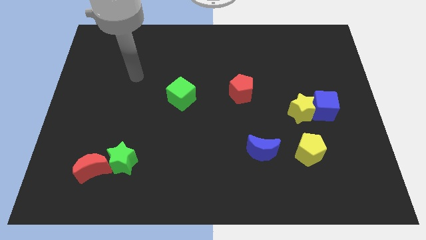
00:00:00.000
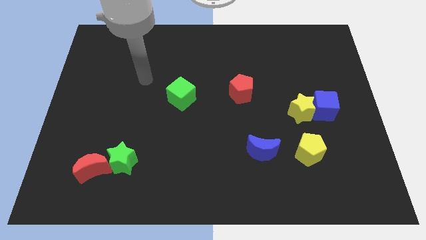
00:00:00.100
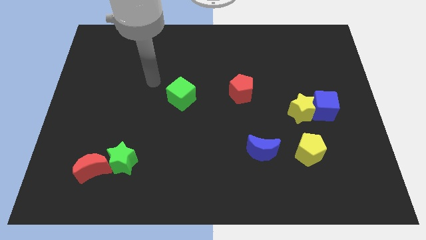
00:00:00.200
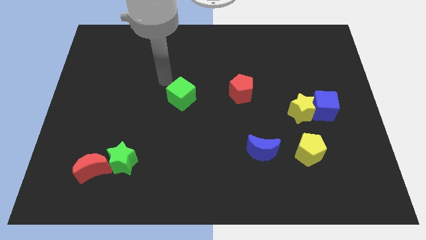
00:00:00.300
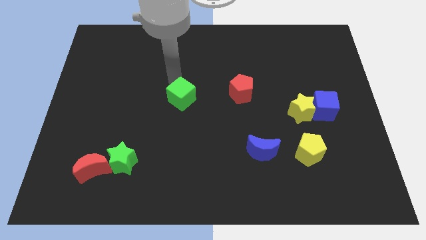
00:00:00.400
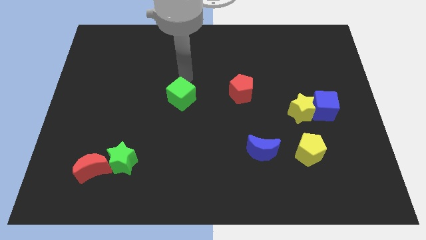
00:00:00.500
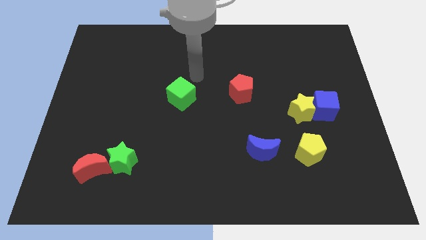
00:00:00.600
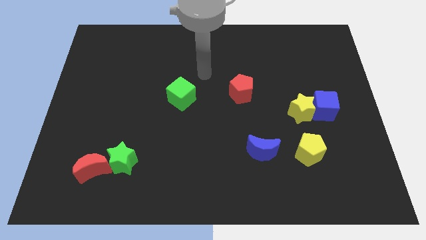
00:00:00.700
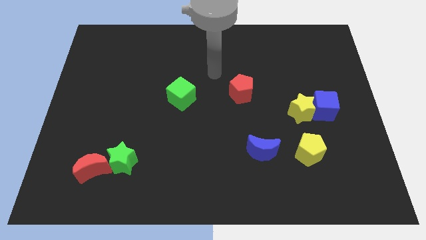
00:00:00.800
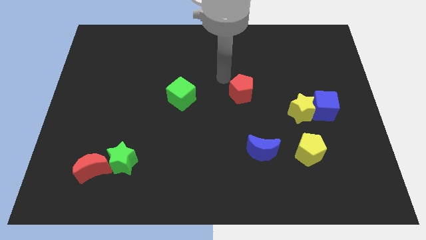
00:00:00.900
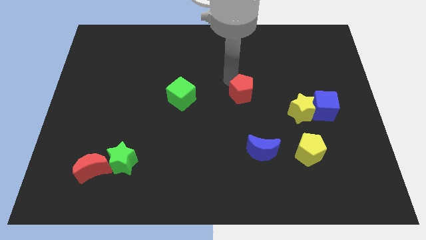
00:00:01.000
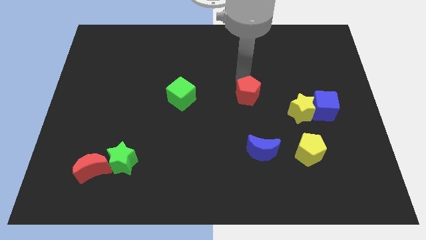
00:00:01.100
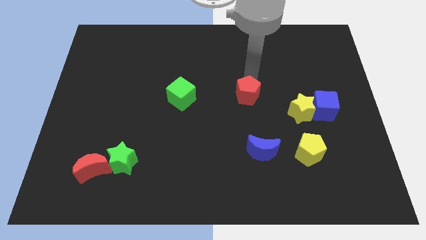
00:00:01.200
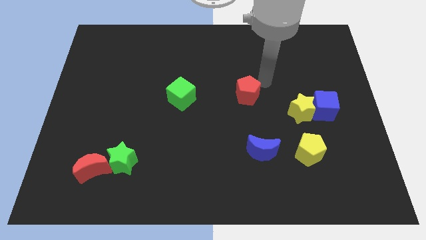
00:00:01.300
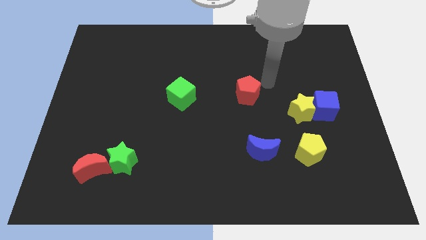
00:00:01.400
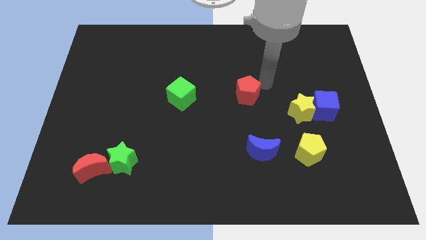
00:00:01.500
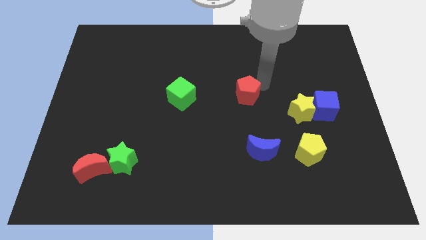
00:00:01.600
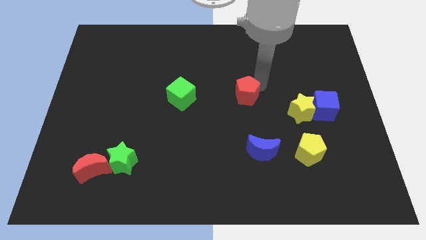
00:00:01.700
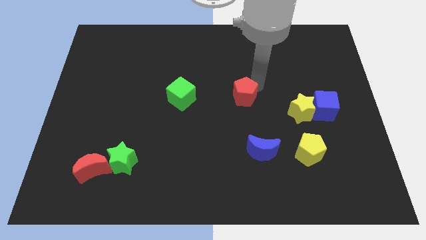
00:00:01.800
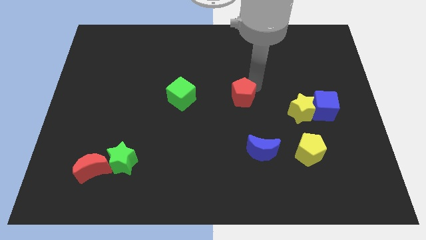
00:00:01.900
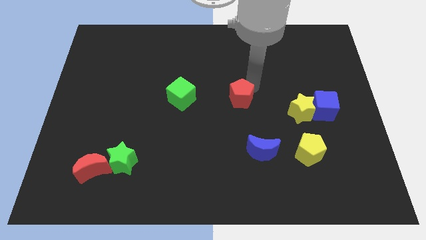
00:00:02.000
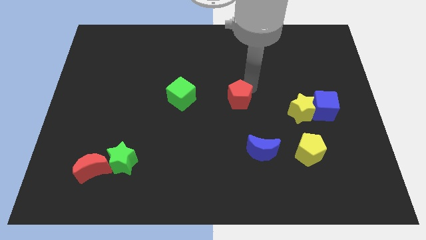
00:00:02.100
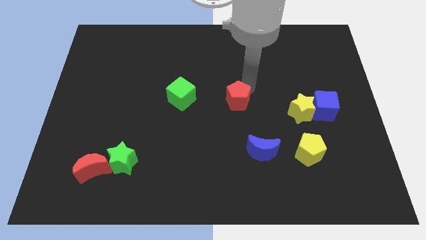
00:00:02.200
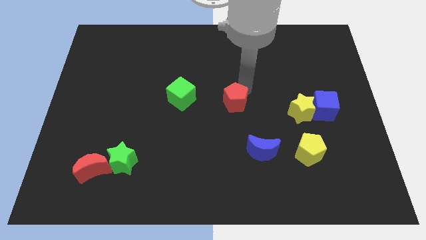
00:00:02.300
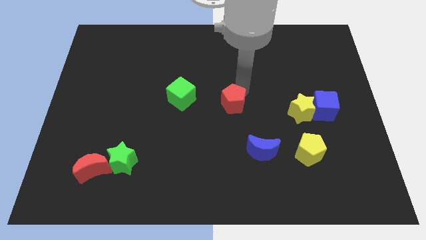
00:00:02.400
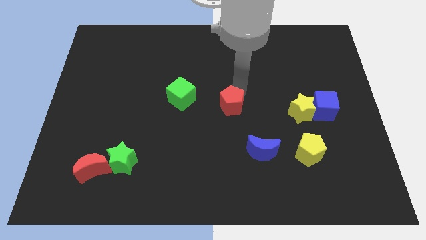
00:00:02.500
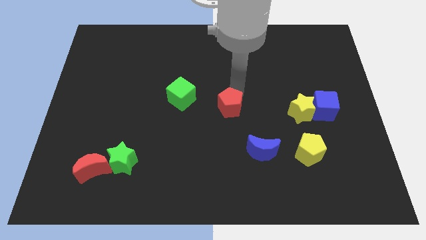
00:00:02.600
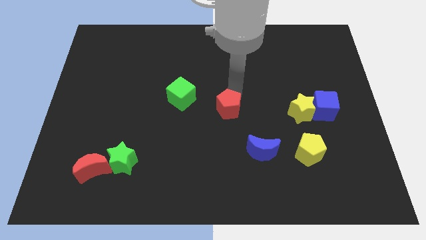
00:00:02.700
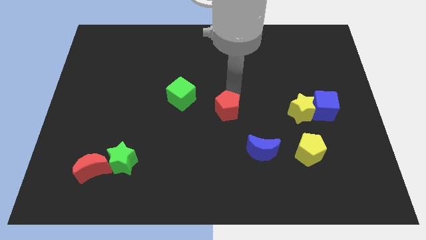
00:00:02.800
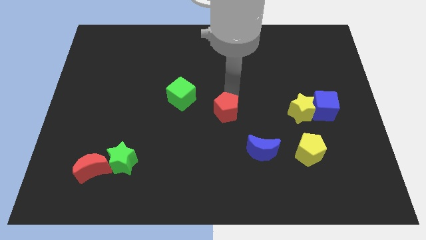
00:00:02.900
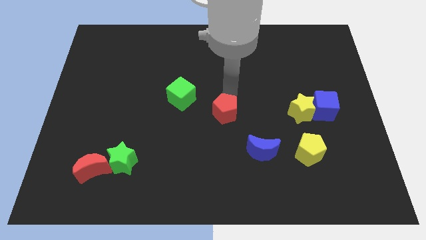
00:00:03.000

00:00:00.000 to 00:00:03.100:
slide the red pentagon slightly downwards and to the left diagonally

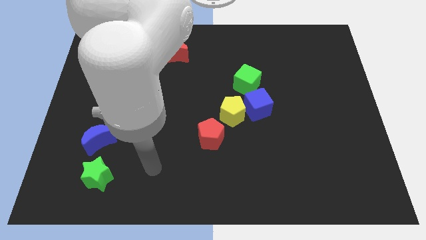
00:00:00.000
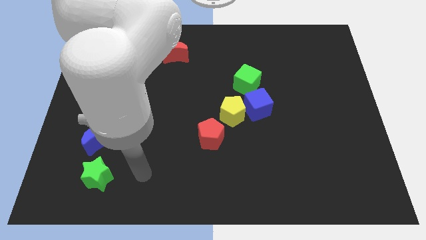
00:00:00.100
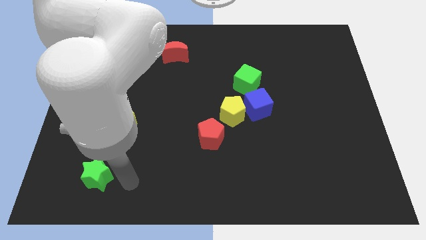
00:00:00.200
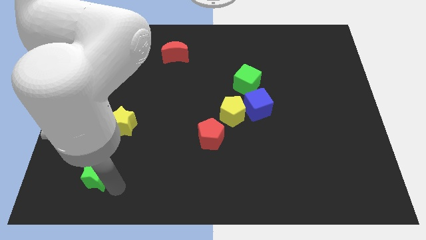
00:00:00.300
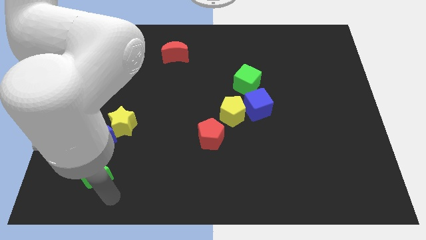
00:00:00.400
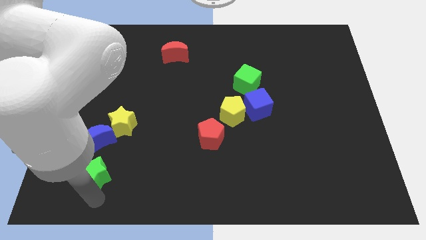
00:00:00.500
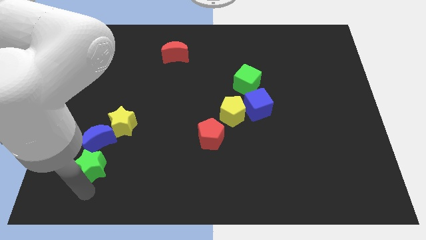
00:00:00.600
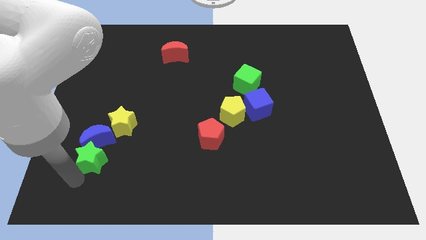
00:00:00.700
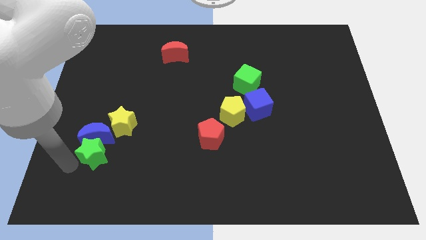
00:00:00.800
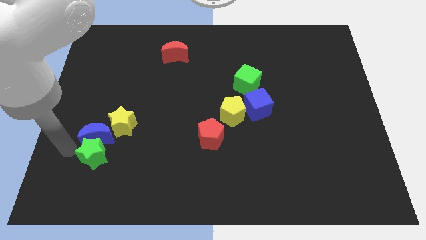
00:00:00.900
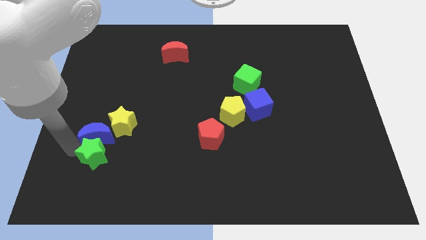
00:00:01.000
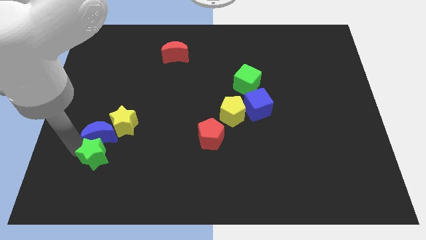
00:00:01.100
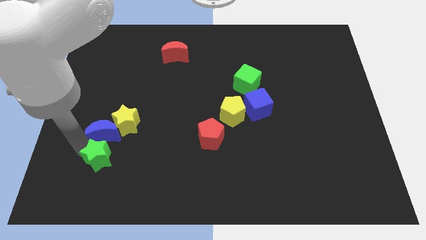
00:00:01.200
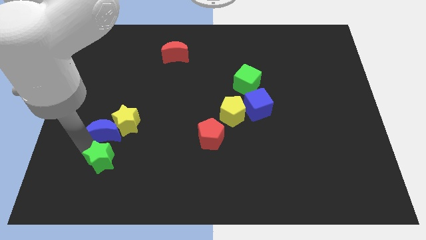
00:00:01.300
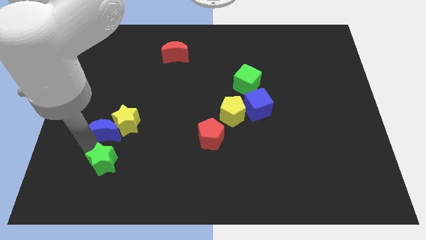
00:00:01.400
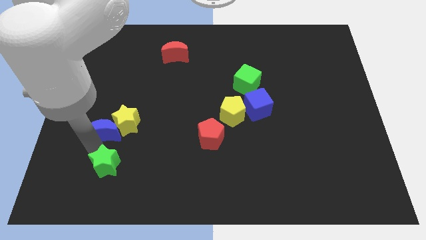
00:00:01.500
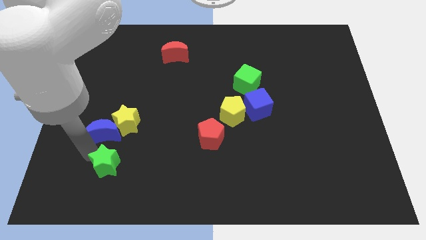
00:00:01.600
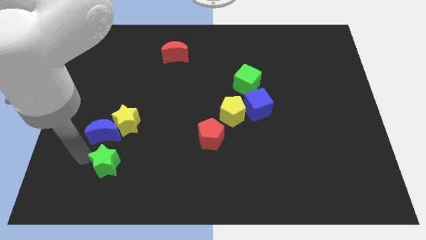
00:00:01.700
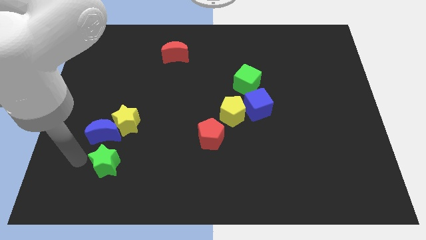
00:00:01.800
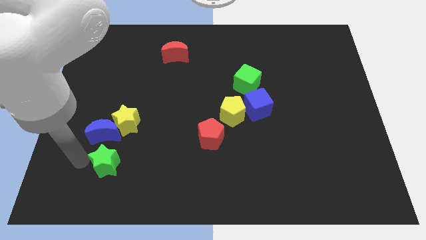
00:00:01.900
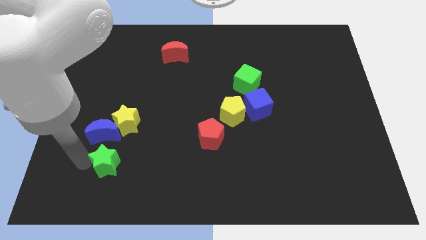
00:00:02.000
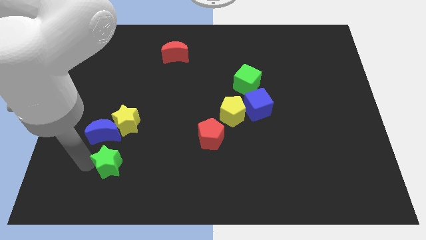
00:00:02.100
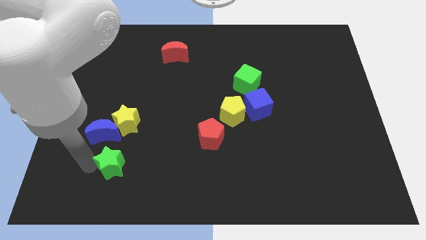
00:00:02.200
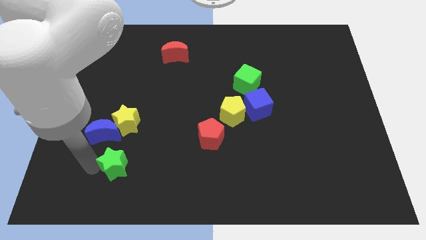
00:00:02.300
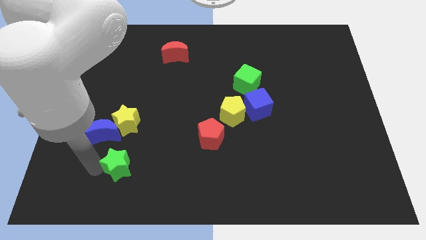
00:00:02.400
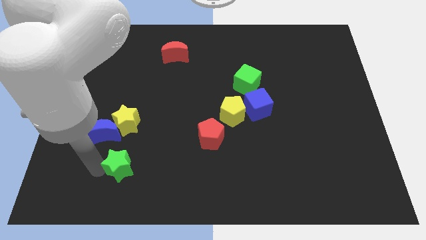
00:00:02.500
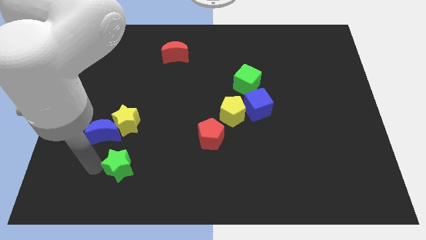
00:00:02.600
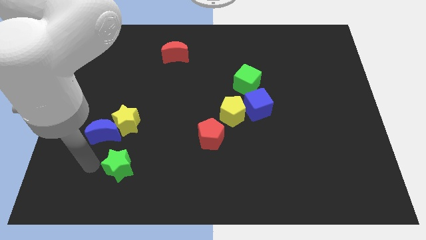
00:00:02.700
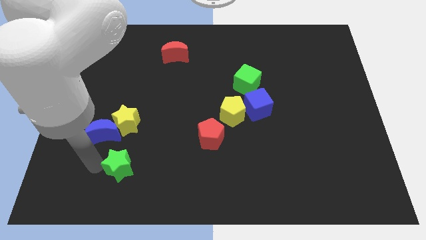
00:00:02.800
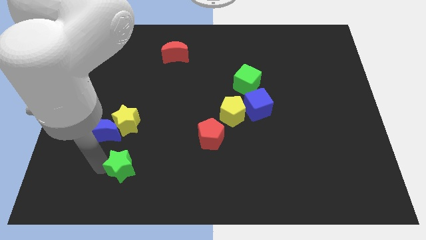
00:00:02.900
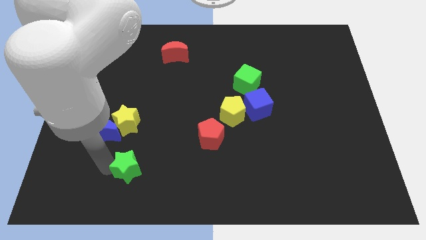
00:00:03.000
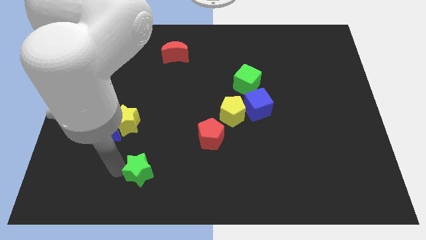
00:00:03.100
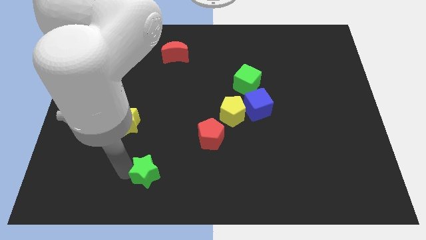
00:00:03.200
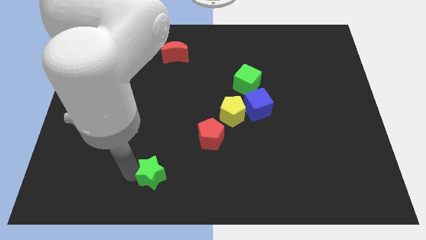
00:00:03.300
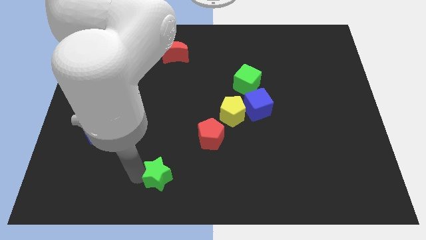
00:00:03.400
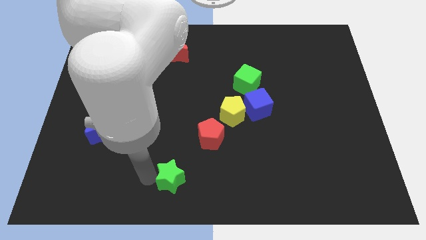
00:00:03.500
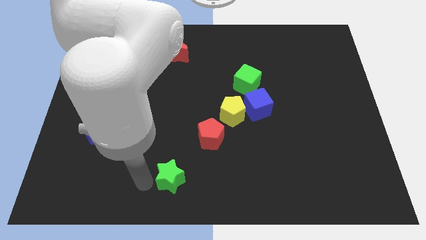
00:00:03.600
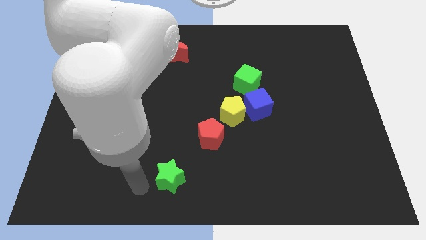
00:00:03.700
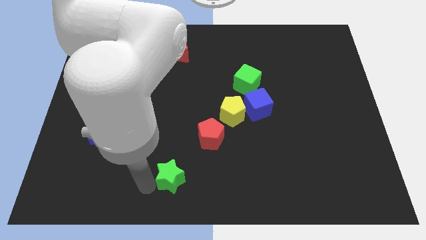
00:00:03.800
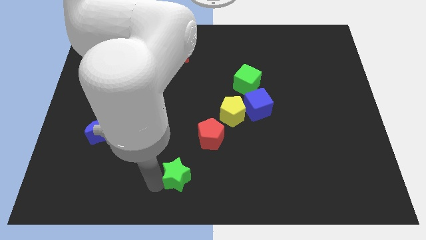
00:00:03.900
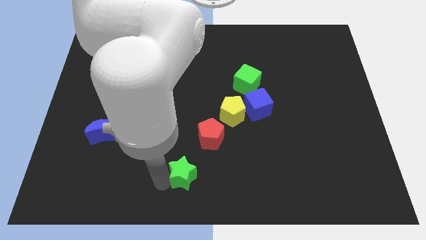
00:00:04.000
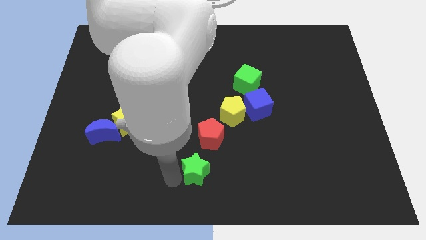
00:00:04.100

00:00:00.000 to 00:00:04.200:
move the green star right

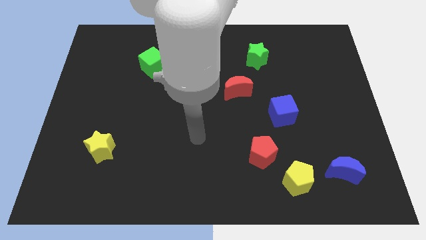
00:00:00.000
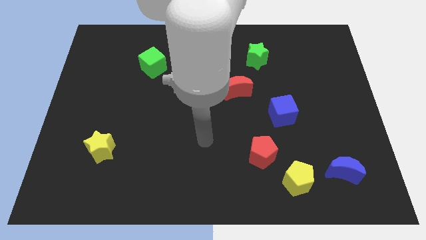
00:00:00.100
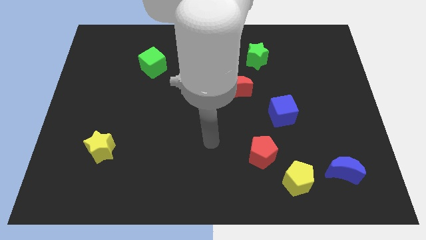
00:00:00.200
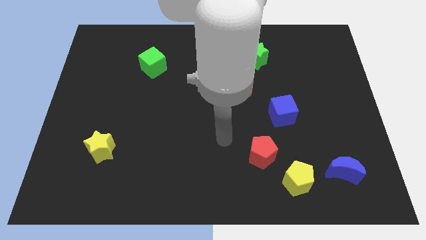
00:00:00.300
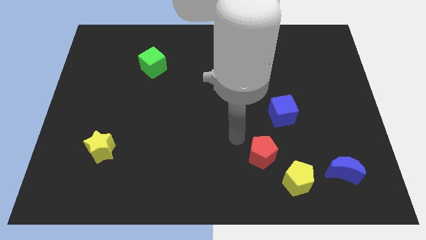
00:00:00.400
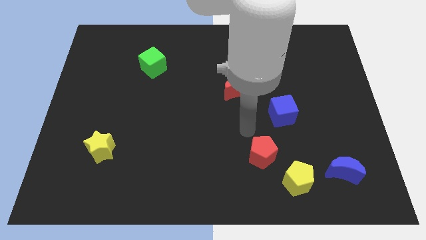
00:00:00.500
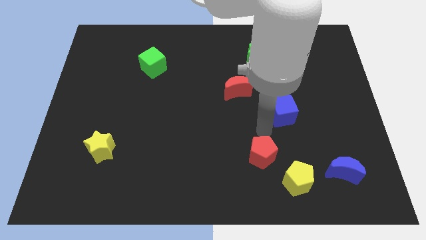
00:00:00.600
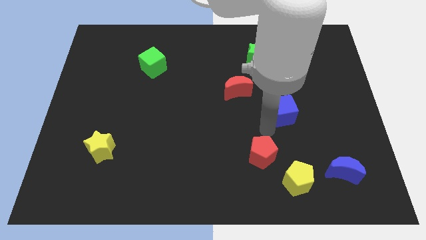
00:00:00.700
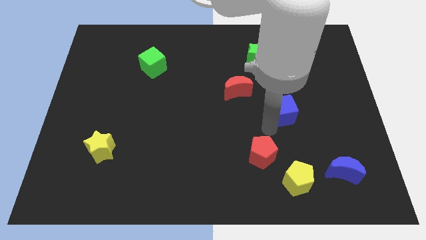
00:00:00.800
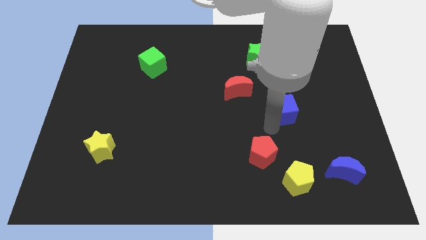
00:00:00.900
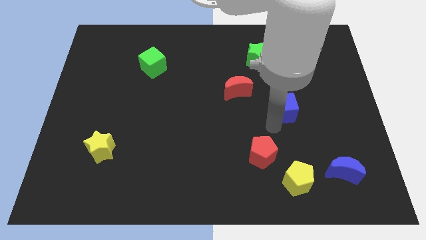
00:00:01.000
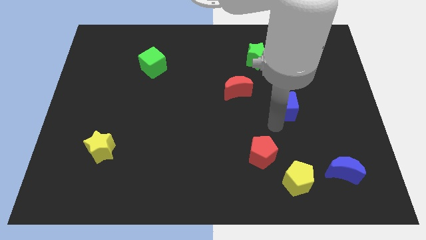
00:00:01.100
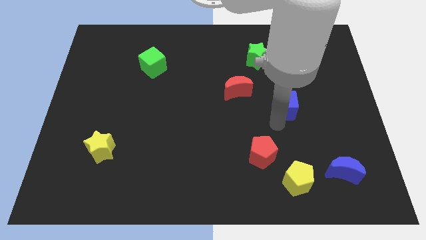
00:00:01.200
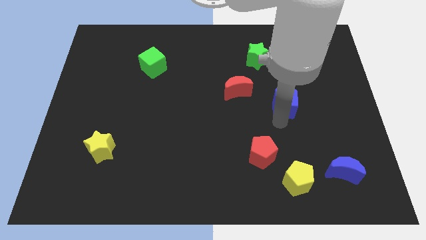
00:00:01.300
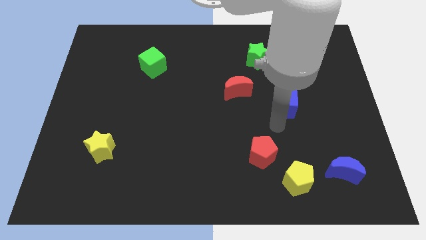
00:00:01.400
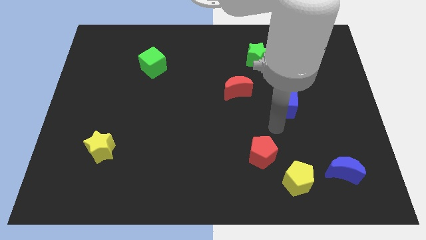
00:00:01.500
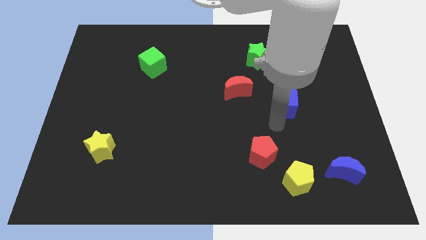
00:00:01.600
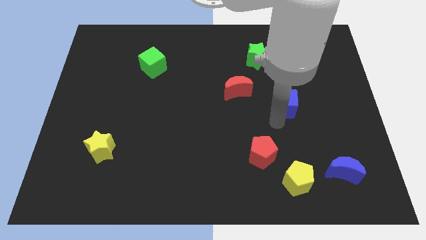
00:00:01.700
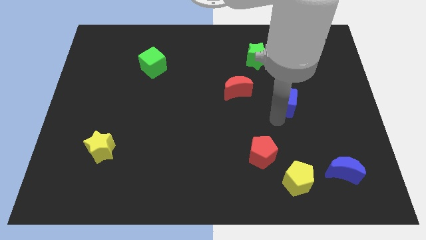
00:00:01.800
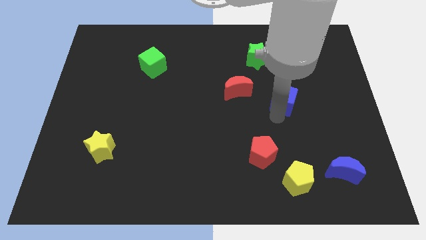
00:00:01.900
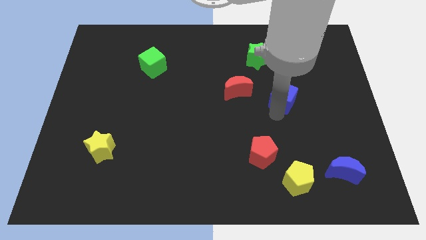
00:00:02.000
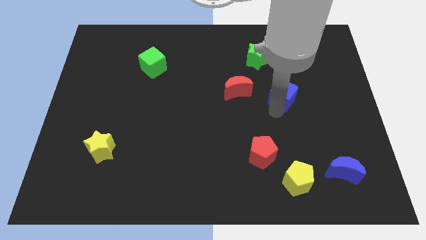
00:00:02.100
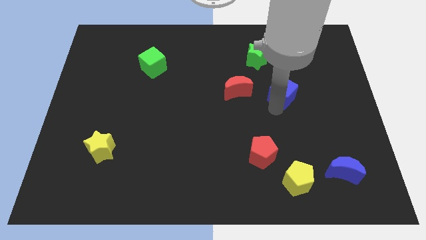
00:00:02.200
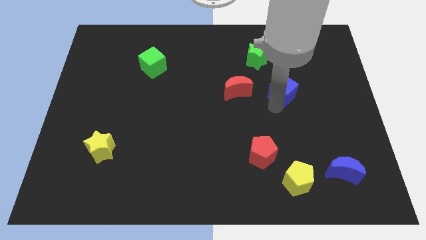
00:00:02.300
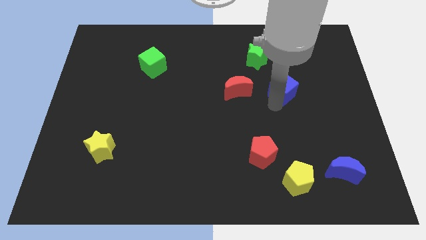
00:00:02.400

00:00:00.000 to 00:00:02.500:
push the blue cube upwards a little bit
